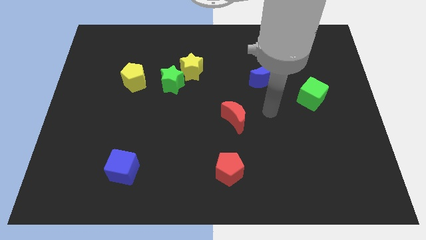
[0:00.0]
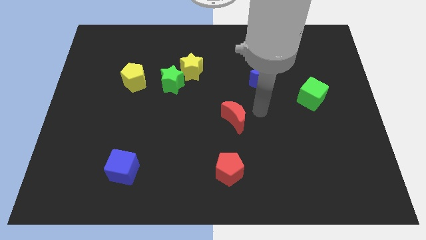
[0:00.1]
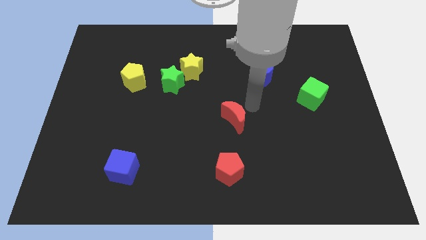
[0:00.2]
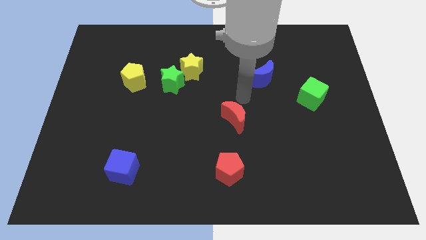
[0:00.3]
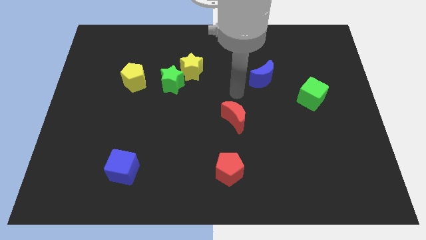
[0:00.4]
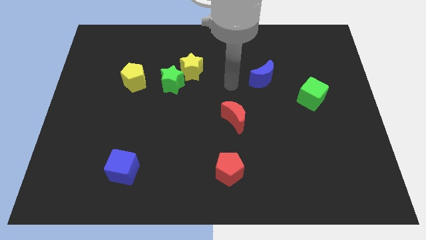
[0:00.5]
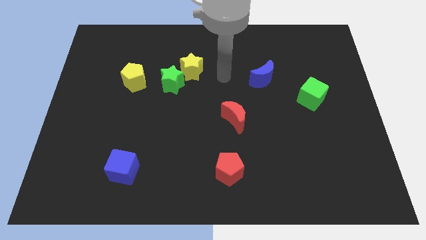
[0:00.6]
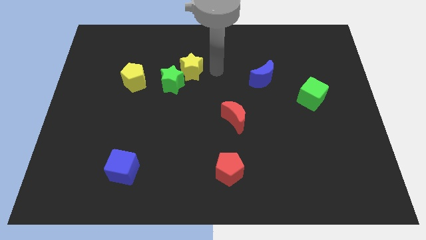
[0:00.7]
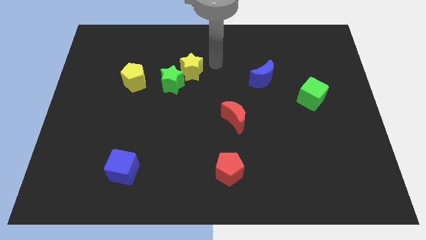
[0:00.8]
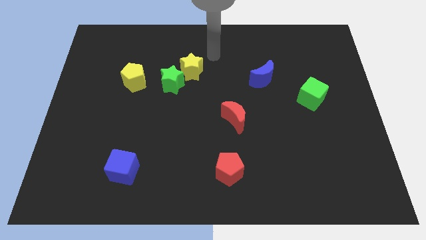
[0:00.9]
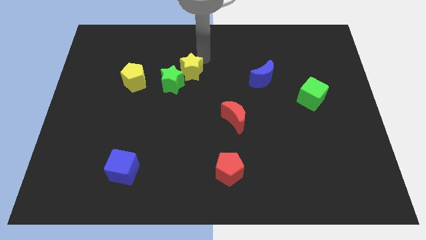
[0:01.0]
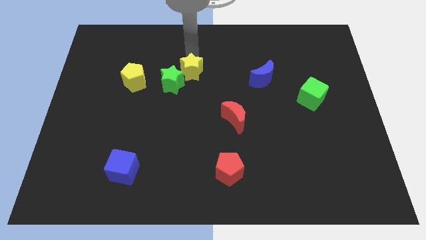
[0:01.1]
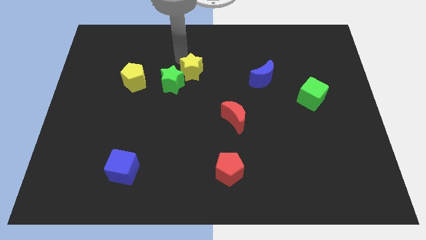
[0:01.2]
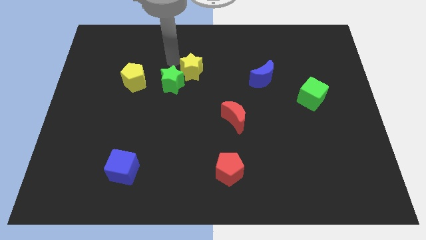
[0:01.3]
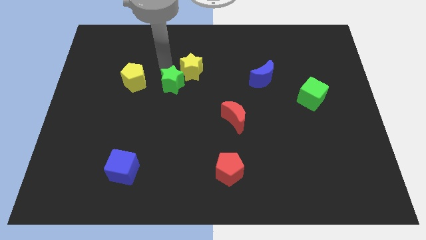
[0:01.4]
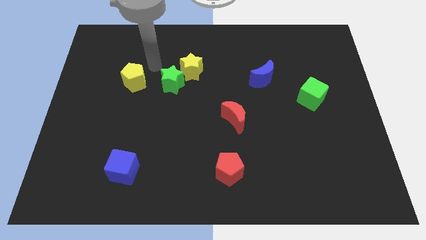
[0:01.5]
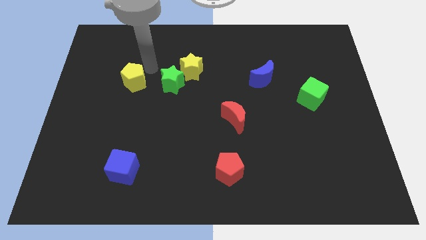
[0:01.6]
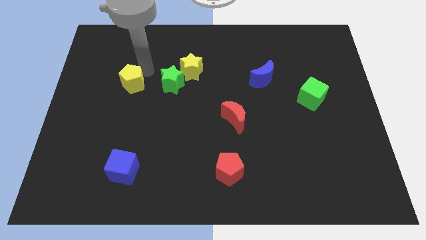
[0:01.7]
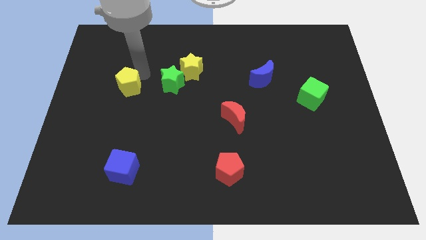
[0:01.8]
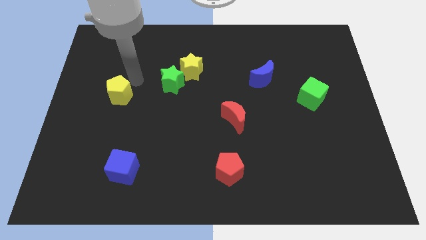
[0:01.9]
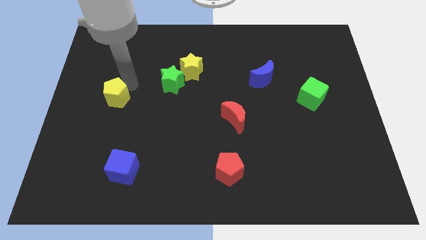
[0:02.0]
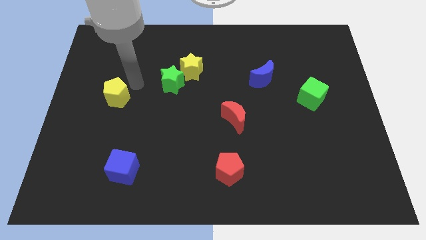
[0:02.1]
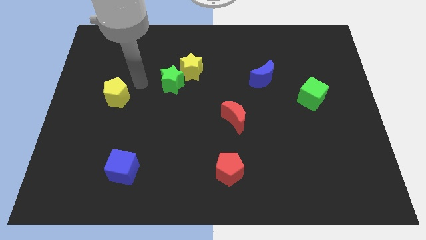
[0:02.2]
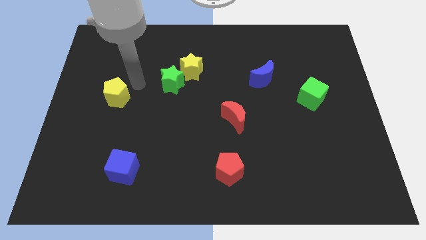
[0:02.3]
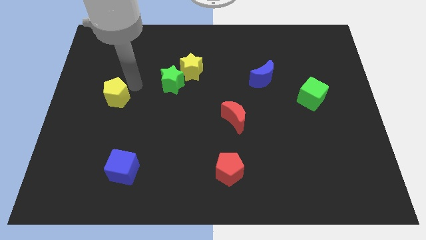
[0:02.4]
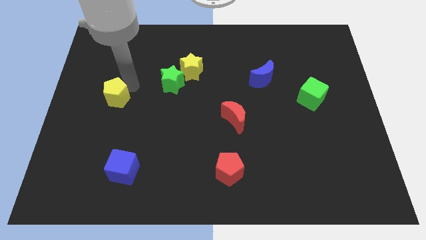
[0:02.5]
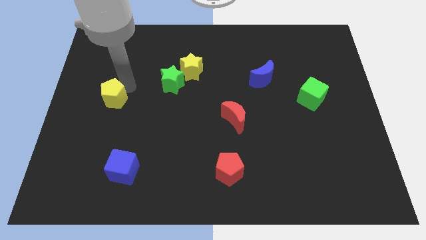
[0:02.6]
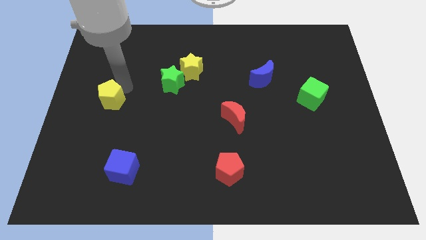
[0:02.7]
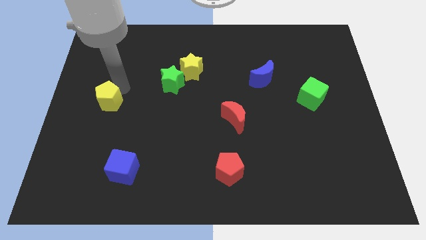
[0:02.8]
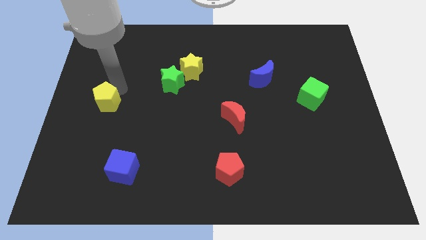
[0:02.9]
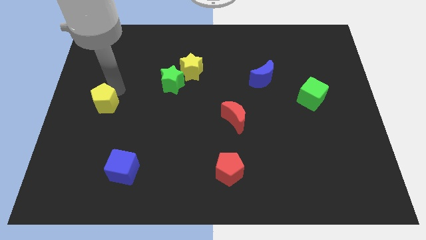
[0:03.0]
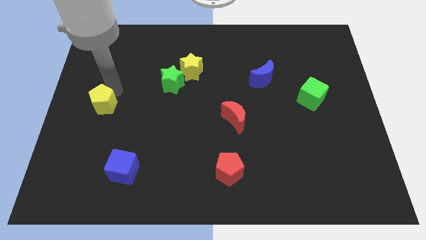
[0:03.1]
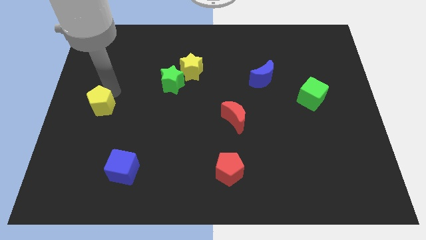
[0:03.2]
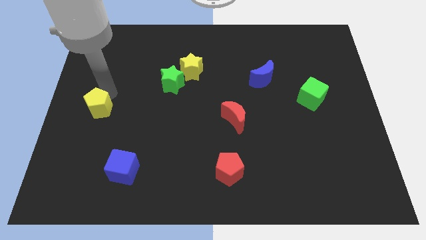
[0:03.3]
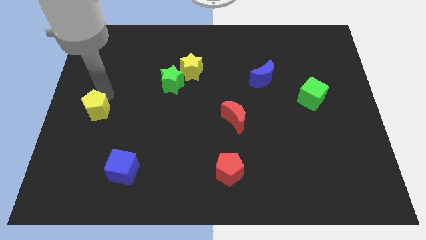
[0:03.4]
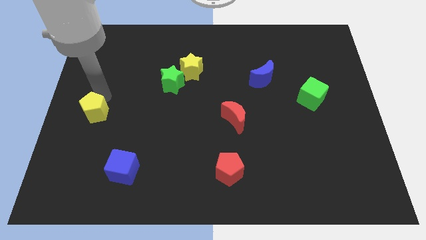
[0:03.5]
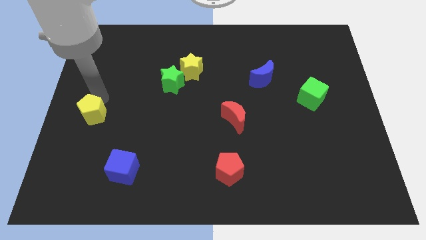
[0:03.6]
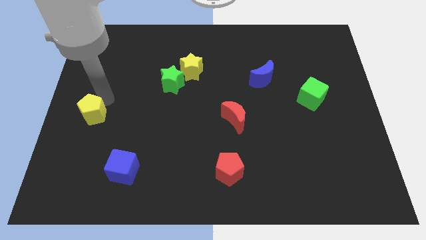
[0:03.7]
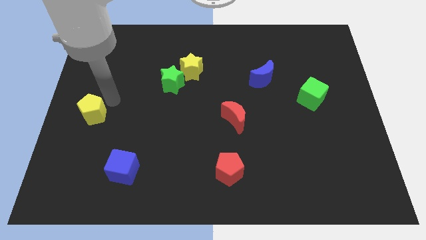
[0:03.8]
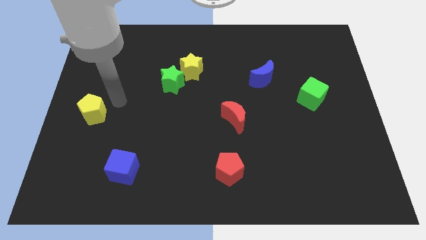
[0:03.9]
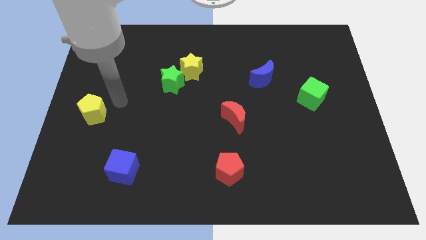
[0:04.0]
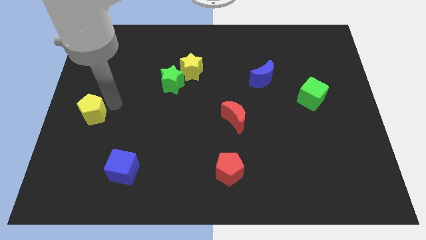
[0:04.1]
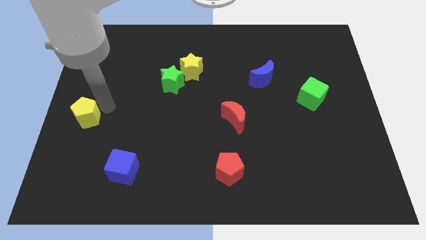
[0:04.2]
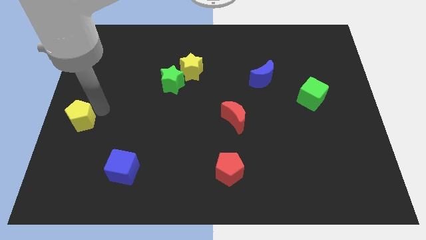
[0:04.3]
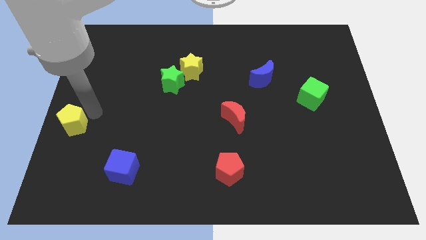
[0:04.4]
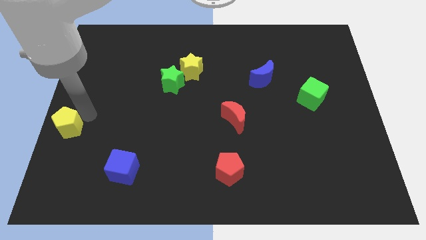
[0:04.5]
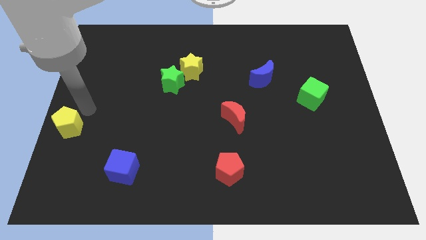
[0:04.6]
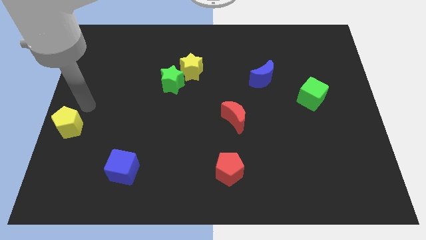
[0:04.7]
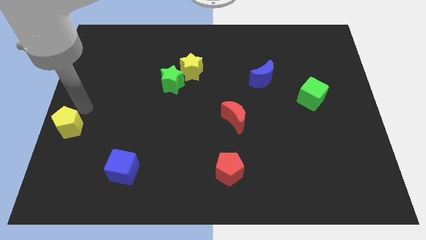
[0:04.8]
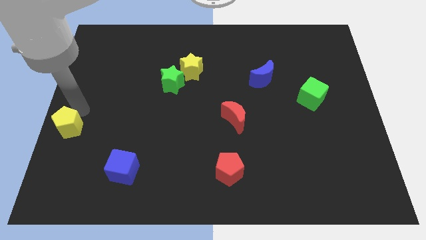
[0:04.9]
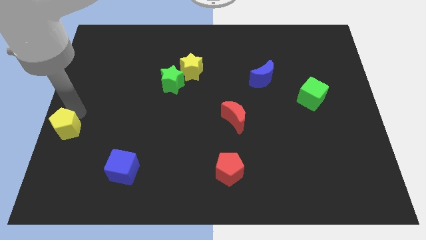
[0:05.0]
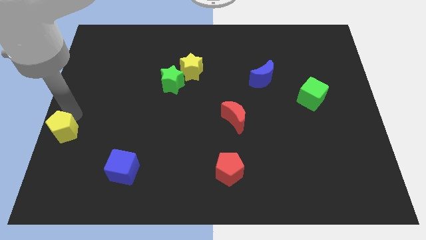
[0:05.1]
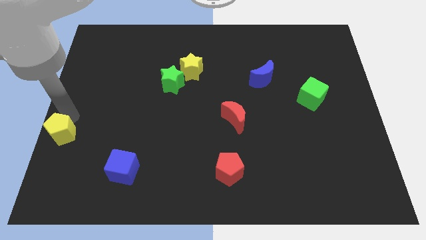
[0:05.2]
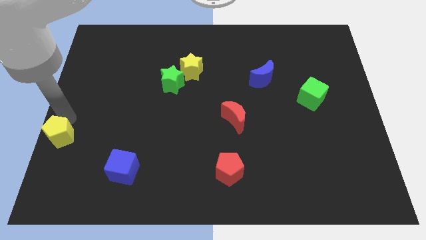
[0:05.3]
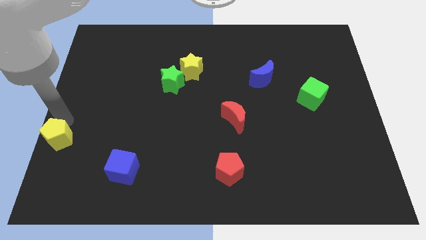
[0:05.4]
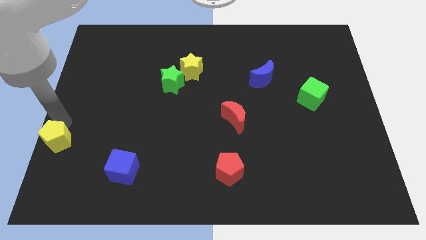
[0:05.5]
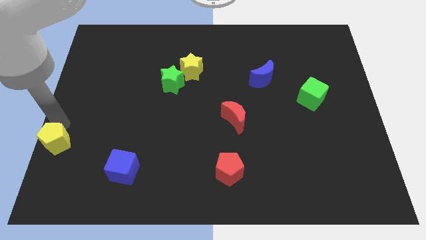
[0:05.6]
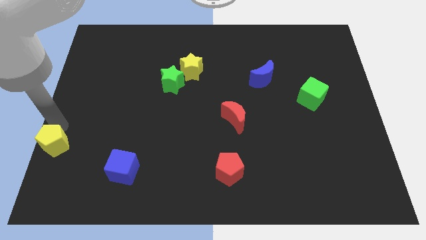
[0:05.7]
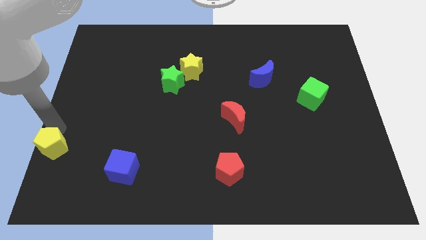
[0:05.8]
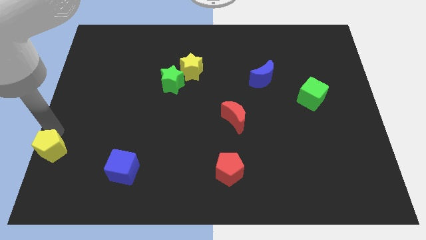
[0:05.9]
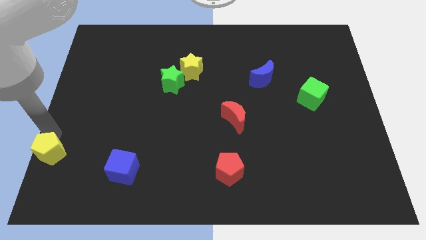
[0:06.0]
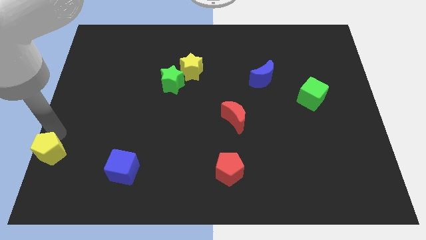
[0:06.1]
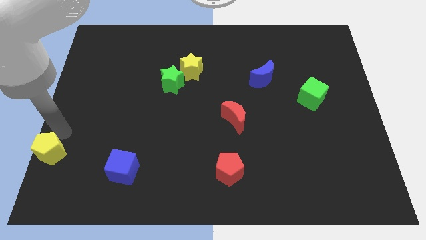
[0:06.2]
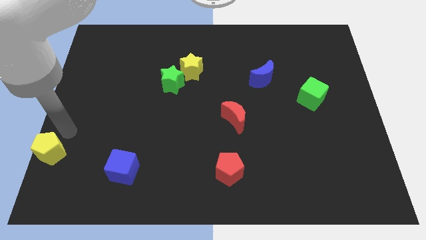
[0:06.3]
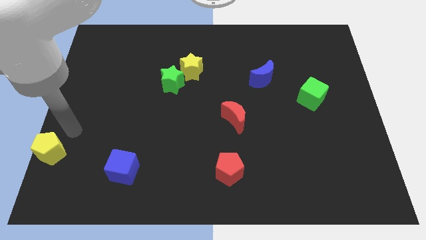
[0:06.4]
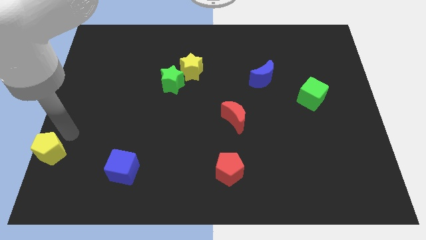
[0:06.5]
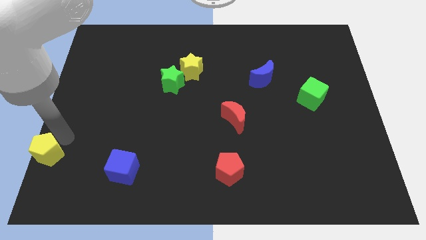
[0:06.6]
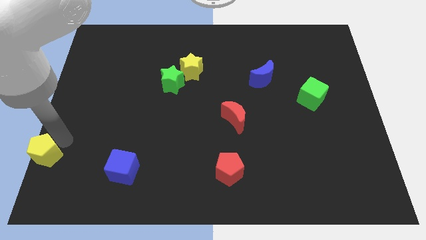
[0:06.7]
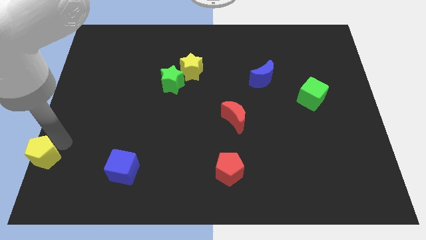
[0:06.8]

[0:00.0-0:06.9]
push the yellow pentagon to the bottom left of the board
